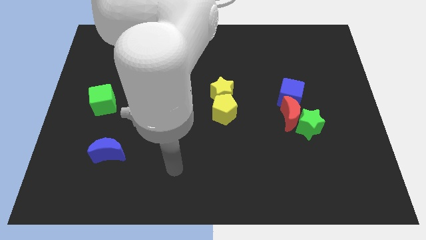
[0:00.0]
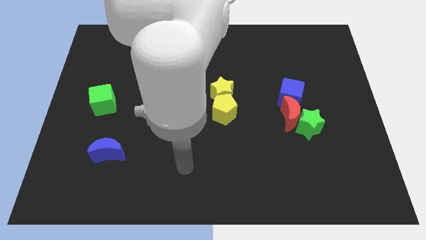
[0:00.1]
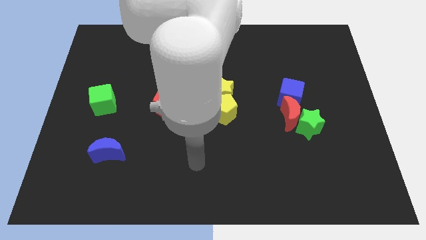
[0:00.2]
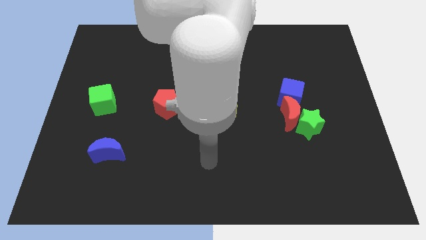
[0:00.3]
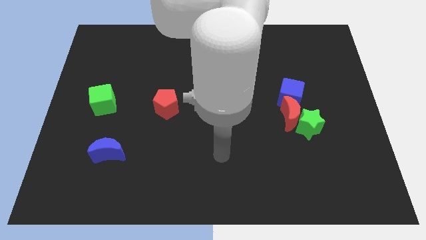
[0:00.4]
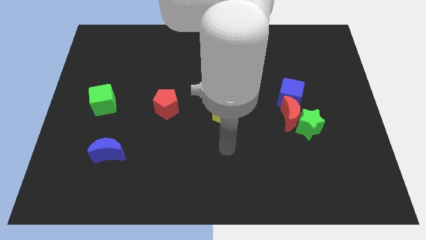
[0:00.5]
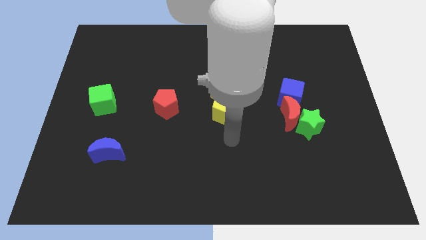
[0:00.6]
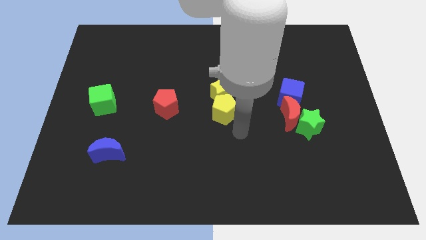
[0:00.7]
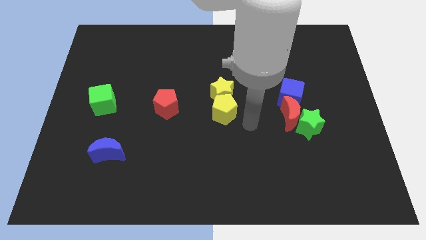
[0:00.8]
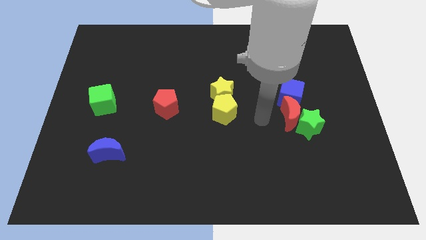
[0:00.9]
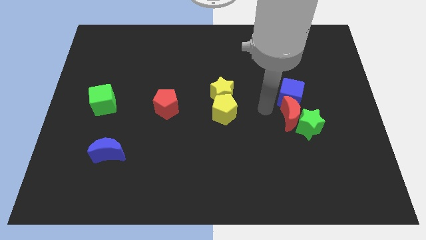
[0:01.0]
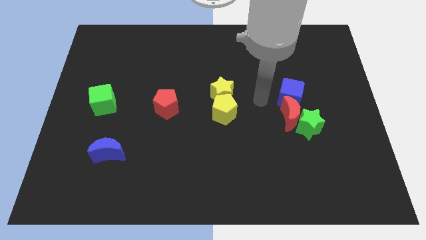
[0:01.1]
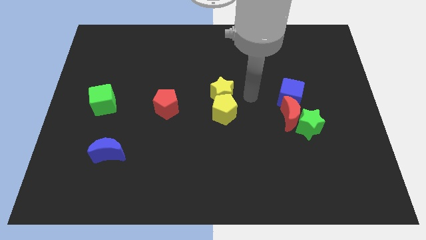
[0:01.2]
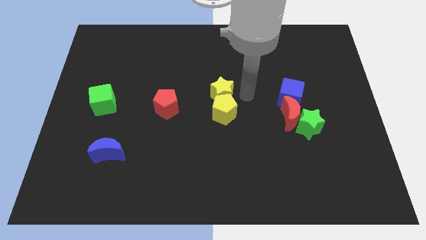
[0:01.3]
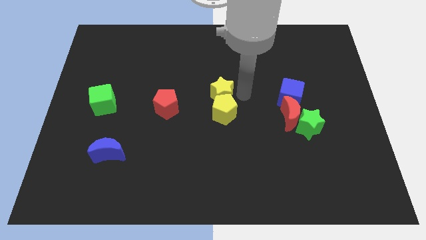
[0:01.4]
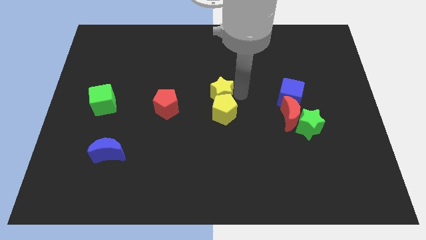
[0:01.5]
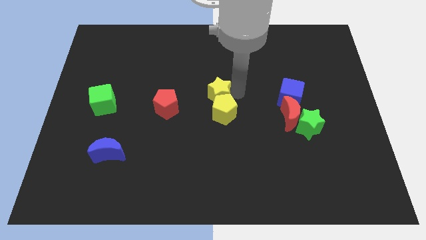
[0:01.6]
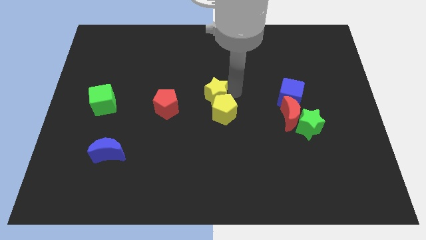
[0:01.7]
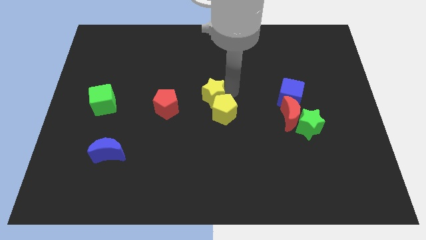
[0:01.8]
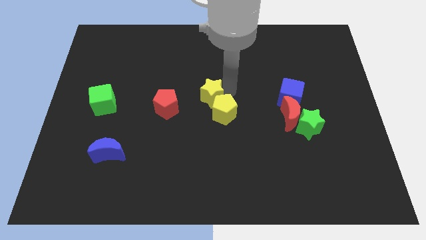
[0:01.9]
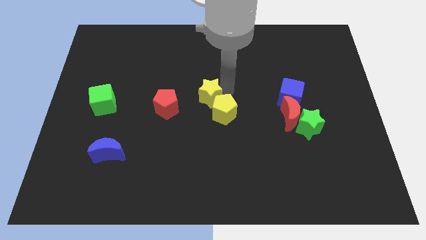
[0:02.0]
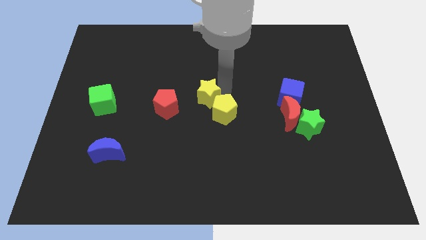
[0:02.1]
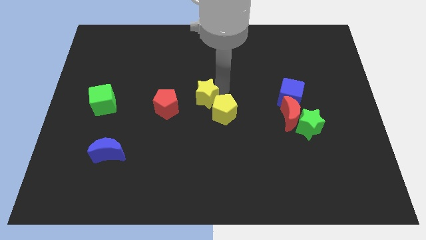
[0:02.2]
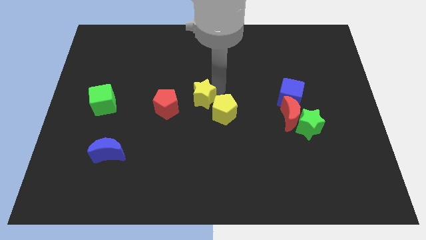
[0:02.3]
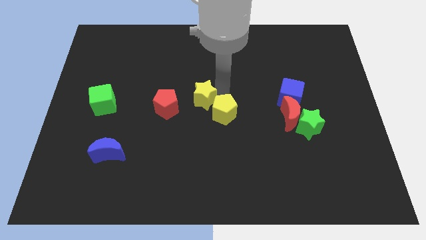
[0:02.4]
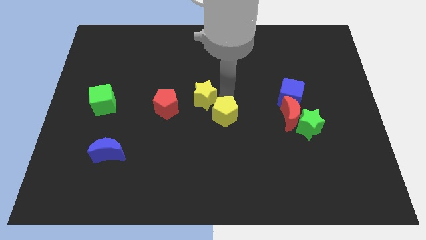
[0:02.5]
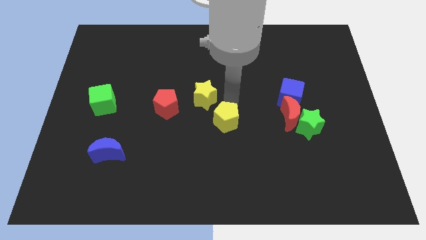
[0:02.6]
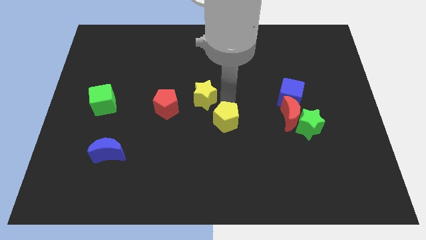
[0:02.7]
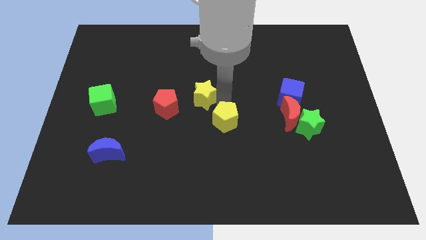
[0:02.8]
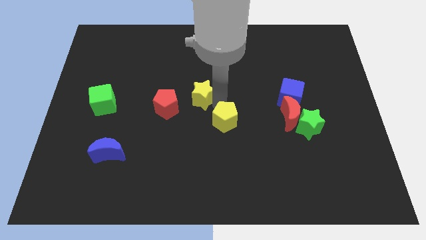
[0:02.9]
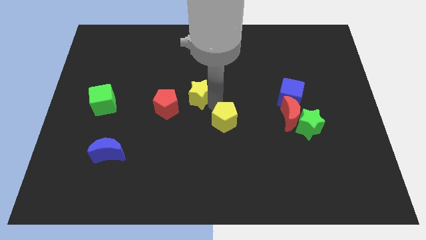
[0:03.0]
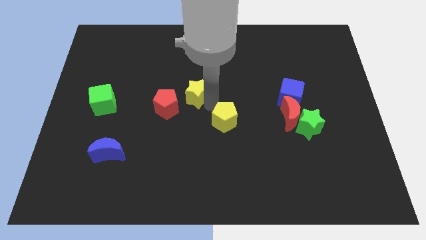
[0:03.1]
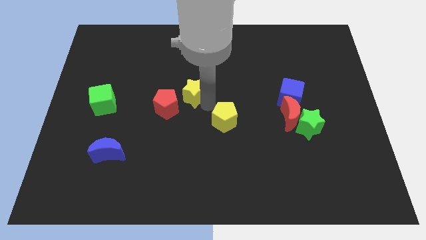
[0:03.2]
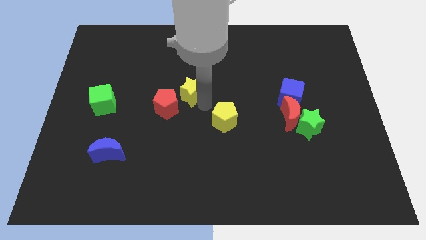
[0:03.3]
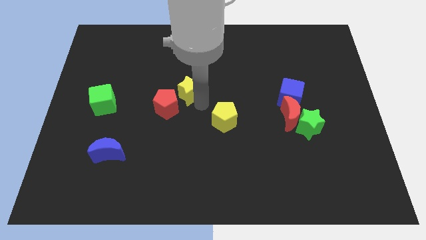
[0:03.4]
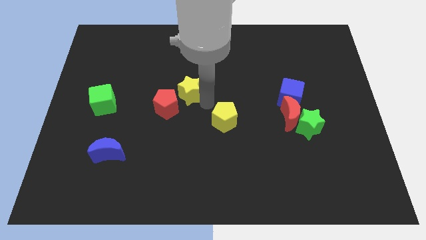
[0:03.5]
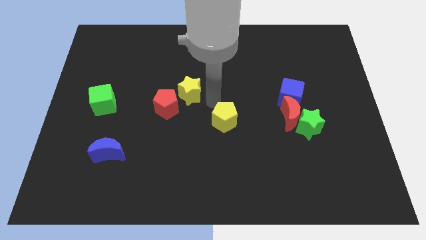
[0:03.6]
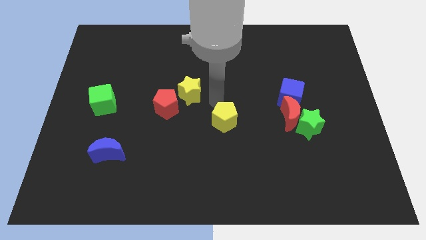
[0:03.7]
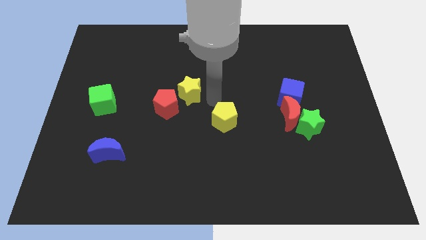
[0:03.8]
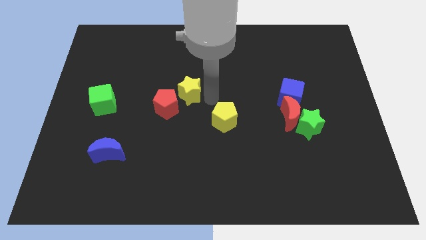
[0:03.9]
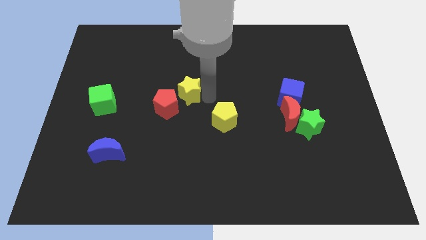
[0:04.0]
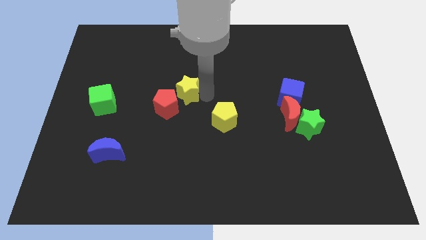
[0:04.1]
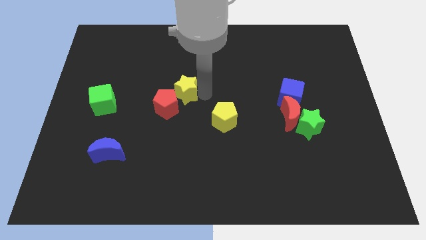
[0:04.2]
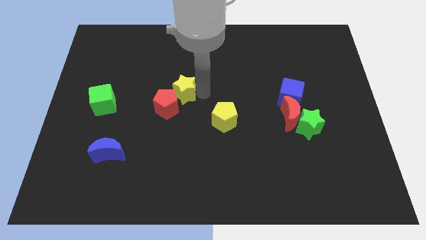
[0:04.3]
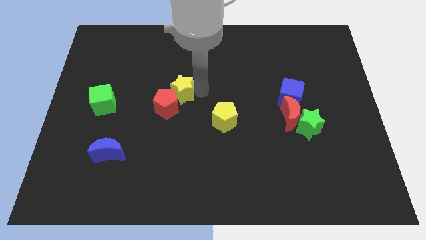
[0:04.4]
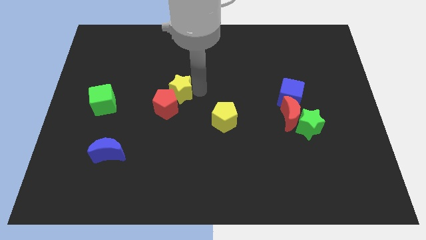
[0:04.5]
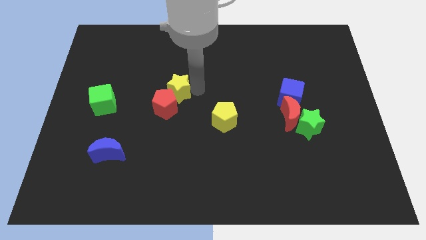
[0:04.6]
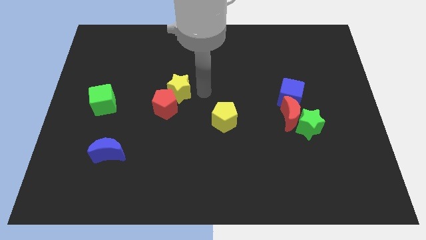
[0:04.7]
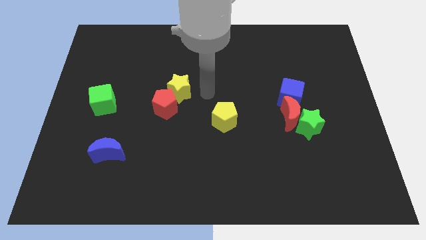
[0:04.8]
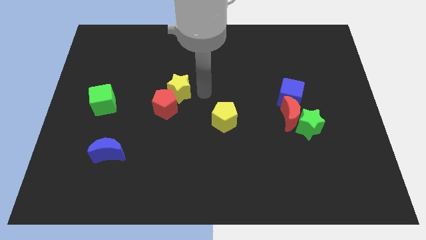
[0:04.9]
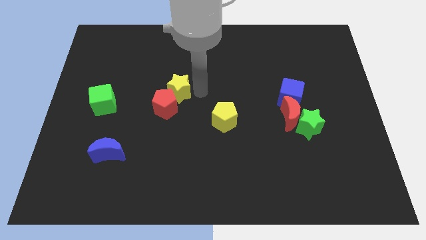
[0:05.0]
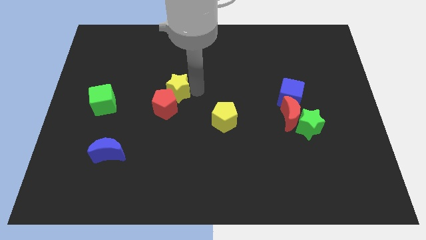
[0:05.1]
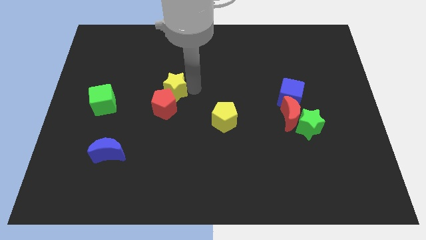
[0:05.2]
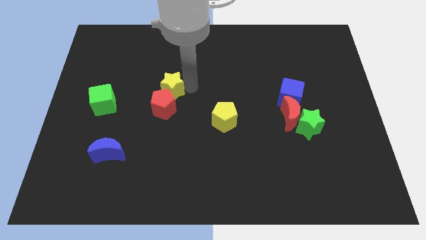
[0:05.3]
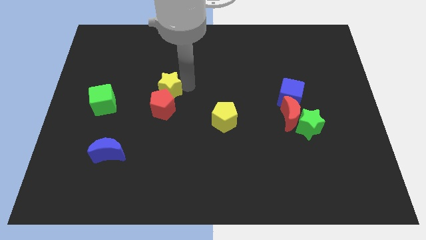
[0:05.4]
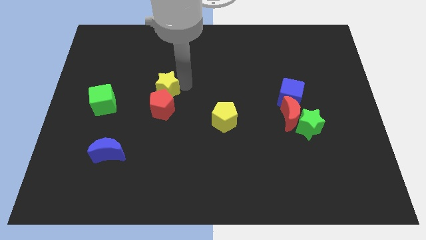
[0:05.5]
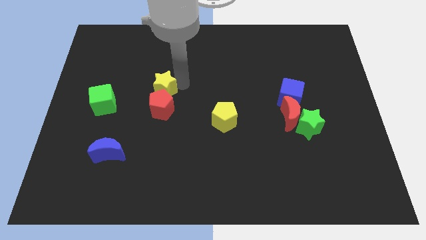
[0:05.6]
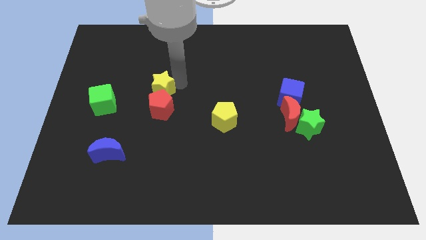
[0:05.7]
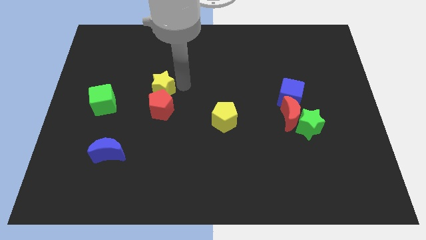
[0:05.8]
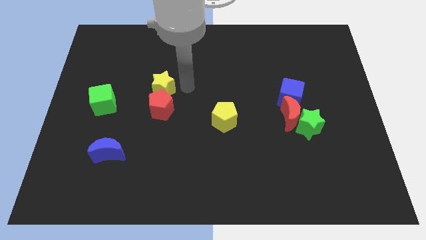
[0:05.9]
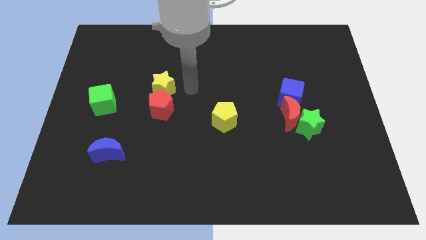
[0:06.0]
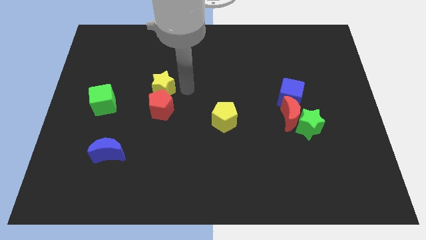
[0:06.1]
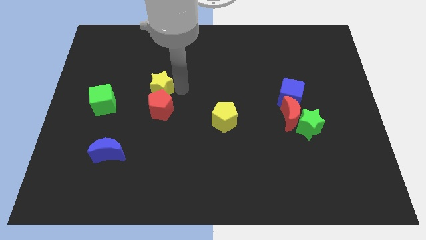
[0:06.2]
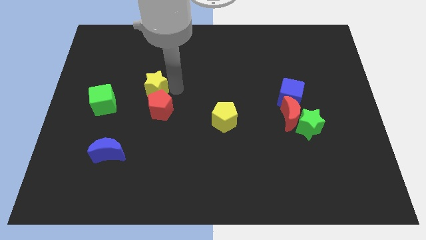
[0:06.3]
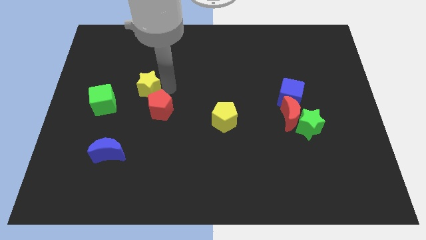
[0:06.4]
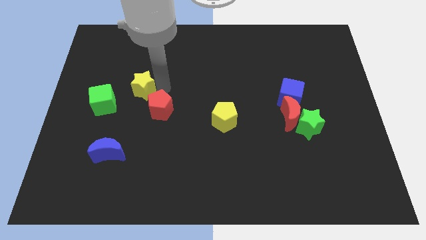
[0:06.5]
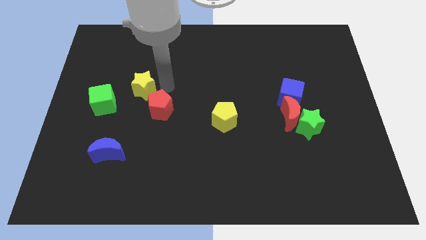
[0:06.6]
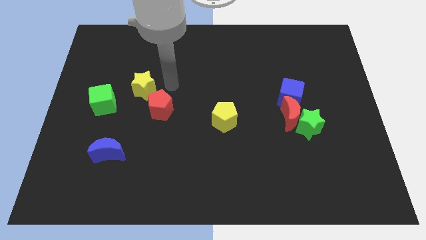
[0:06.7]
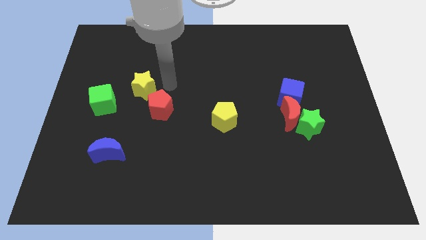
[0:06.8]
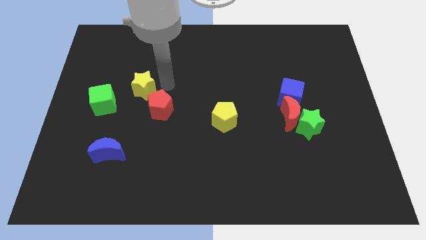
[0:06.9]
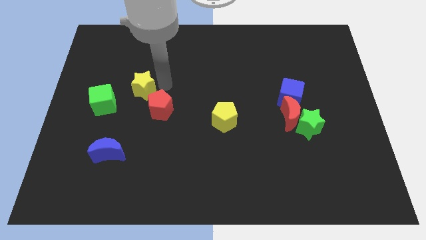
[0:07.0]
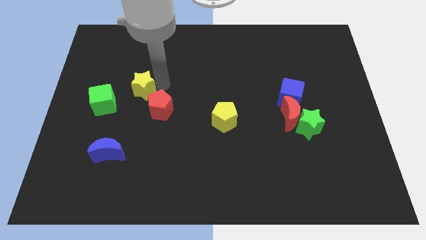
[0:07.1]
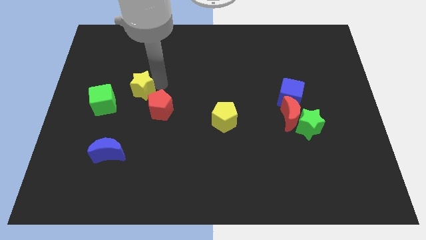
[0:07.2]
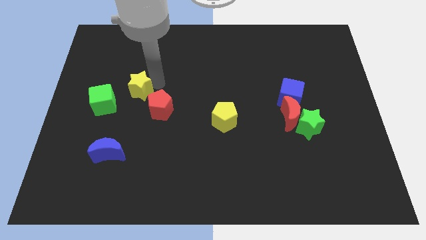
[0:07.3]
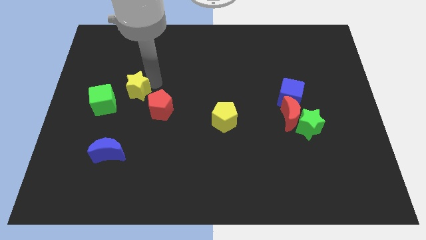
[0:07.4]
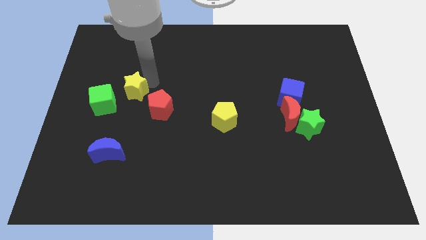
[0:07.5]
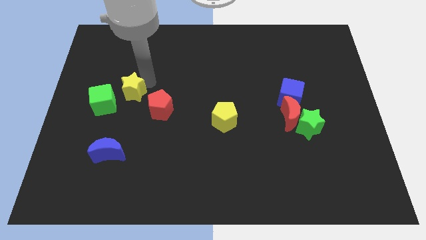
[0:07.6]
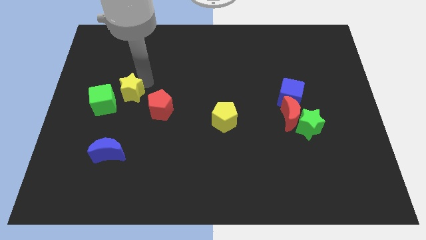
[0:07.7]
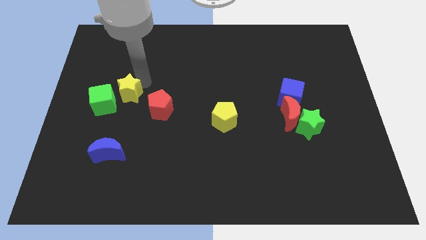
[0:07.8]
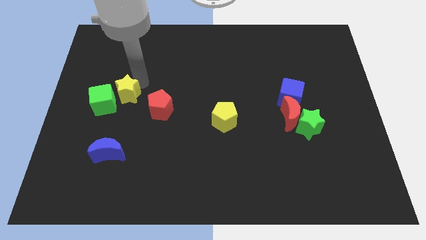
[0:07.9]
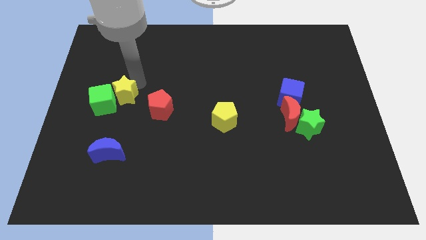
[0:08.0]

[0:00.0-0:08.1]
push the yellow star to the green cube

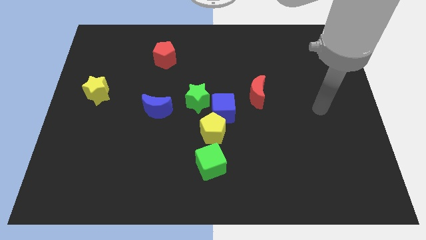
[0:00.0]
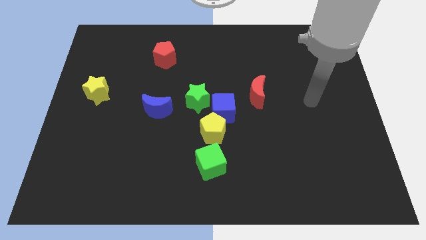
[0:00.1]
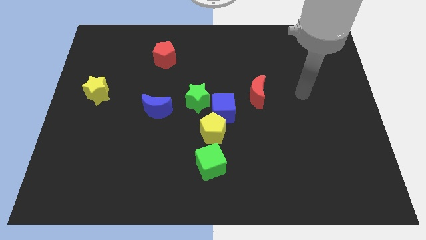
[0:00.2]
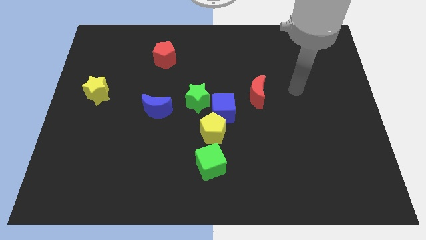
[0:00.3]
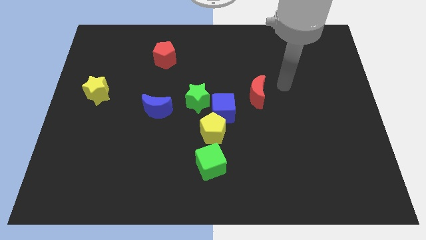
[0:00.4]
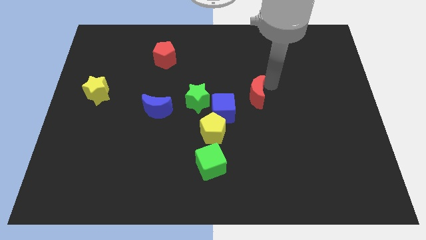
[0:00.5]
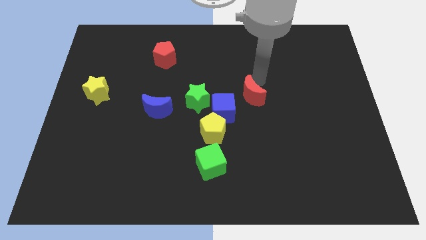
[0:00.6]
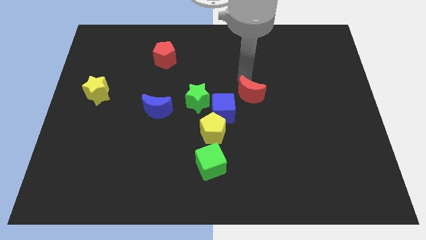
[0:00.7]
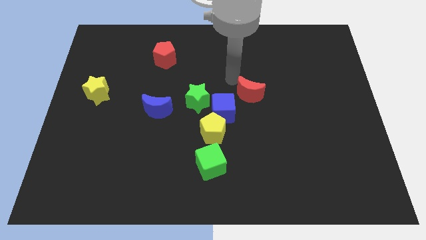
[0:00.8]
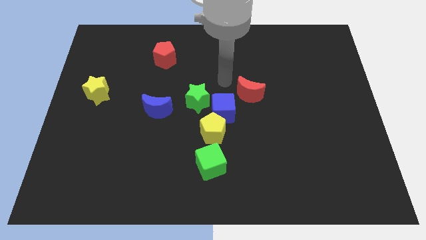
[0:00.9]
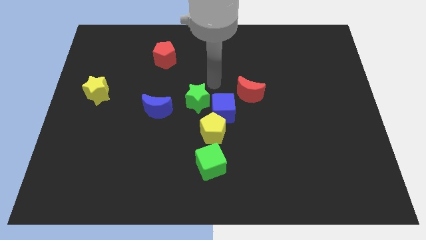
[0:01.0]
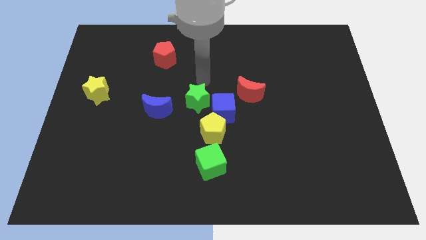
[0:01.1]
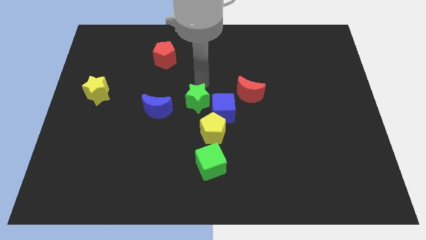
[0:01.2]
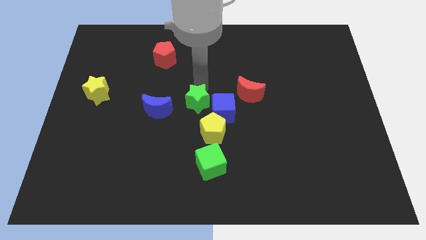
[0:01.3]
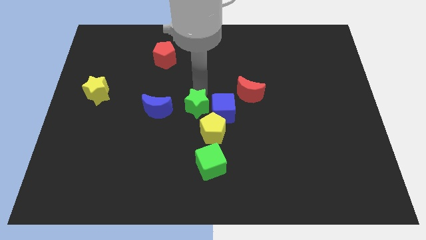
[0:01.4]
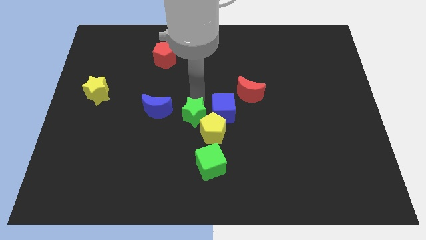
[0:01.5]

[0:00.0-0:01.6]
put the green star to the yellow pentagon
